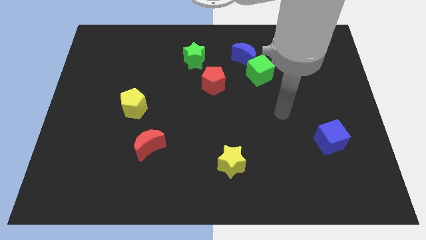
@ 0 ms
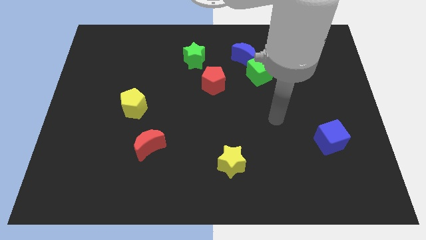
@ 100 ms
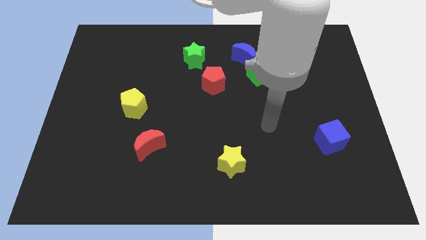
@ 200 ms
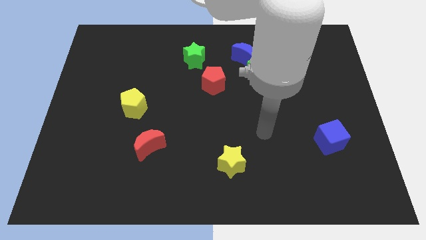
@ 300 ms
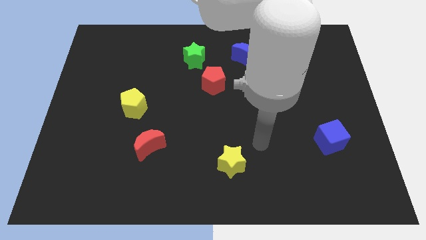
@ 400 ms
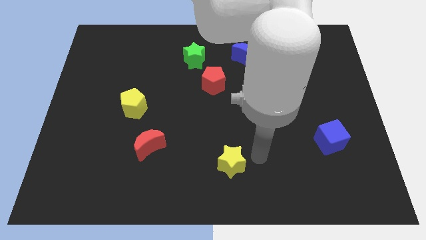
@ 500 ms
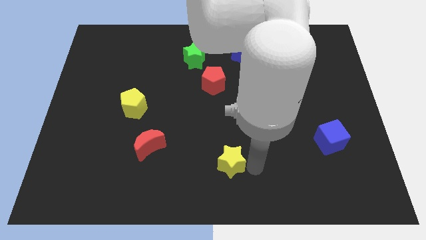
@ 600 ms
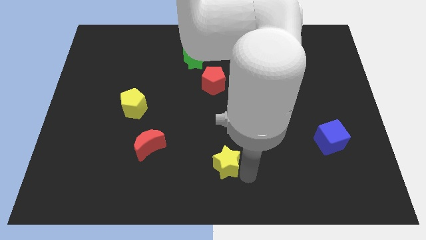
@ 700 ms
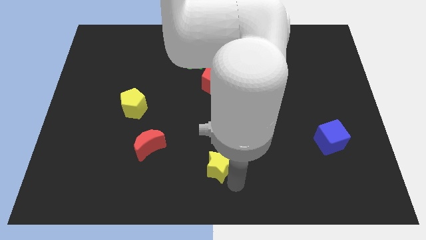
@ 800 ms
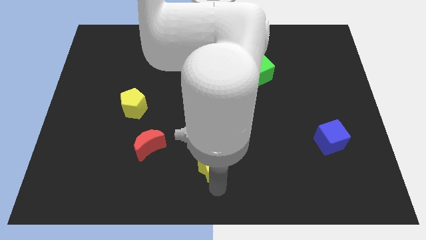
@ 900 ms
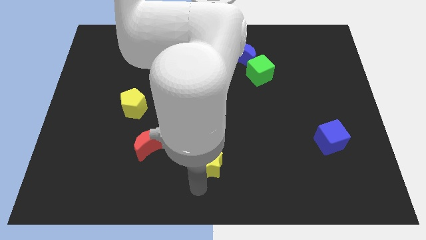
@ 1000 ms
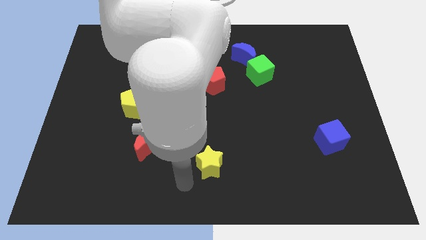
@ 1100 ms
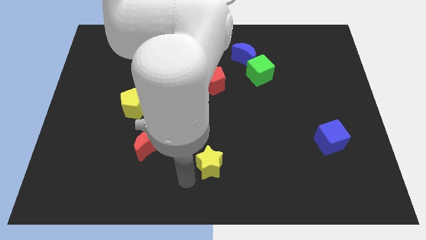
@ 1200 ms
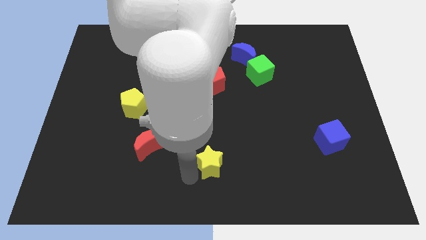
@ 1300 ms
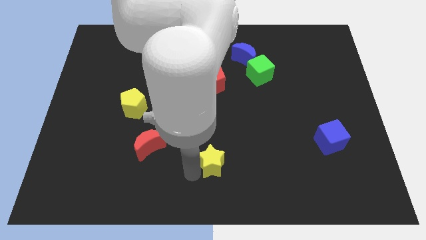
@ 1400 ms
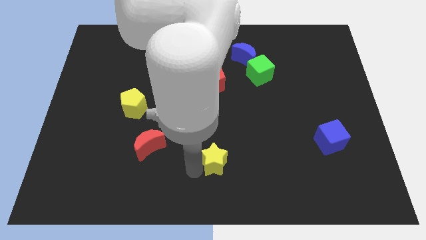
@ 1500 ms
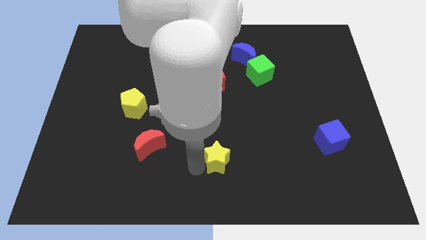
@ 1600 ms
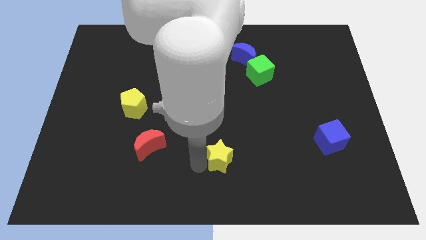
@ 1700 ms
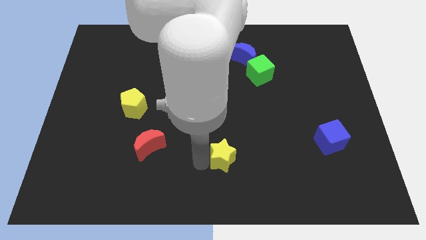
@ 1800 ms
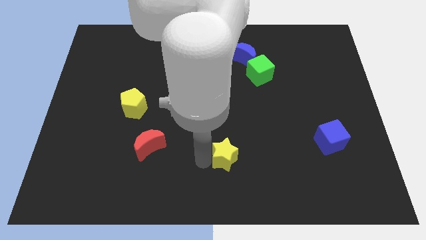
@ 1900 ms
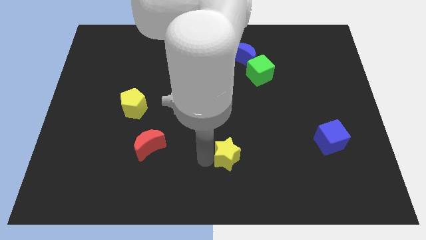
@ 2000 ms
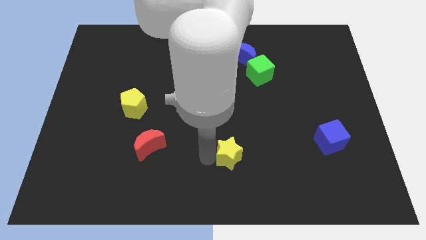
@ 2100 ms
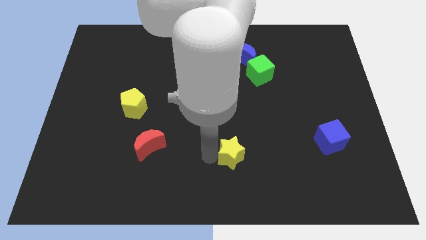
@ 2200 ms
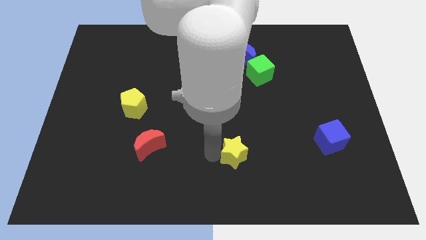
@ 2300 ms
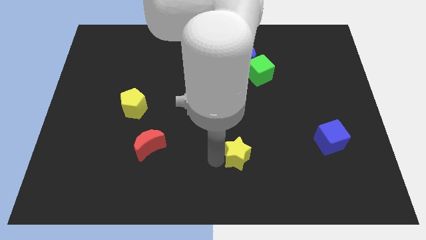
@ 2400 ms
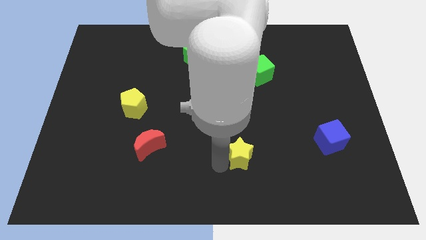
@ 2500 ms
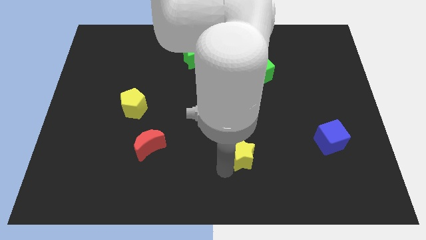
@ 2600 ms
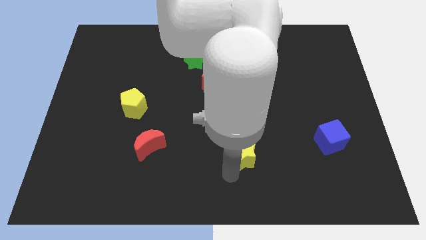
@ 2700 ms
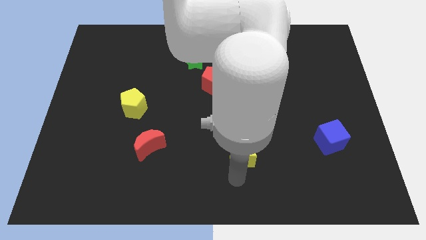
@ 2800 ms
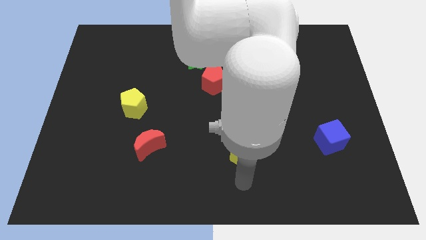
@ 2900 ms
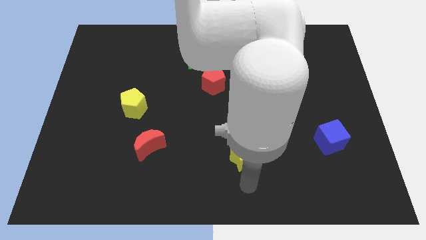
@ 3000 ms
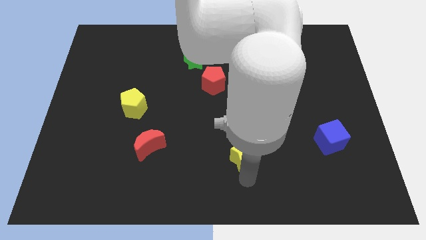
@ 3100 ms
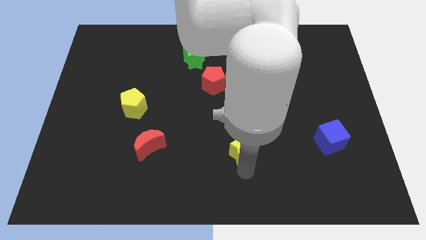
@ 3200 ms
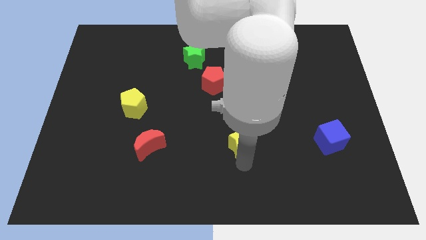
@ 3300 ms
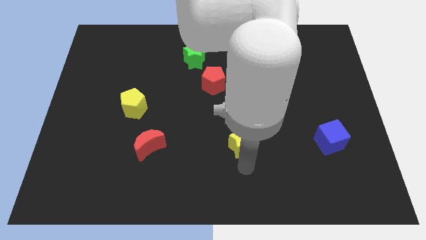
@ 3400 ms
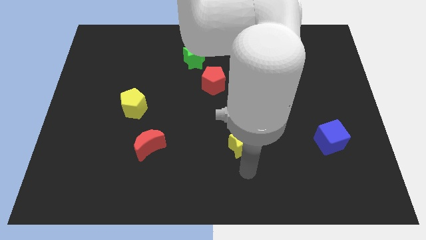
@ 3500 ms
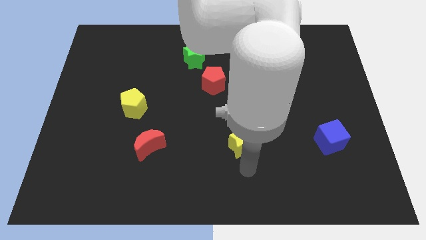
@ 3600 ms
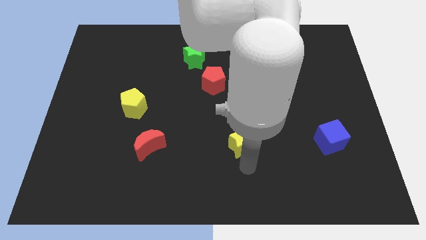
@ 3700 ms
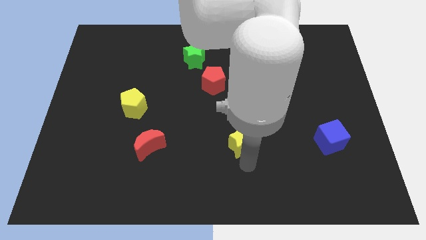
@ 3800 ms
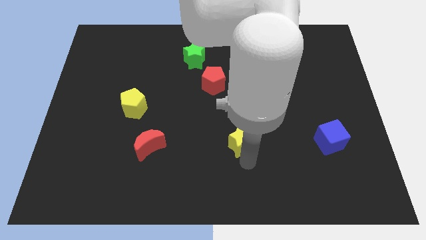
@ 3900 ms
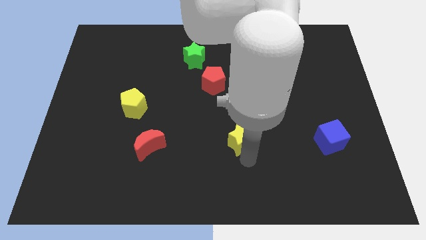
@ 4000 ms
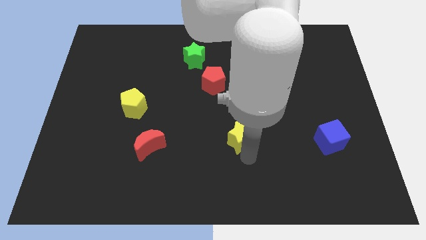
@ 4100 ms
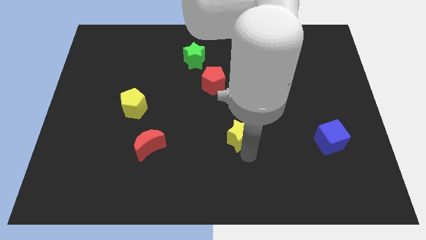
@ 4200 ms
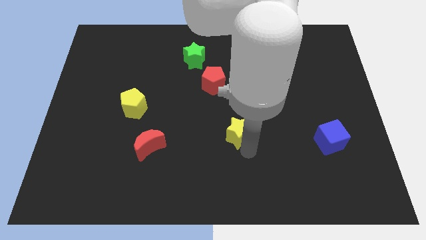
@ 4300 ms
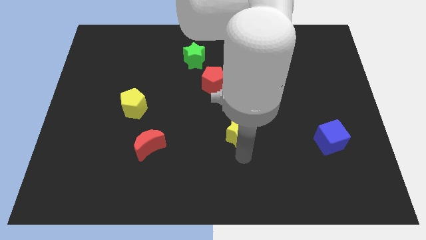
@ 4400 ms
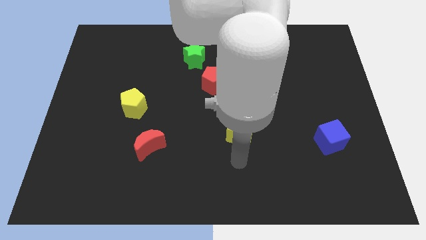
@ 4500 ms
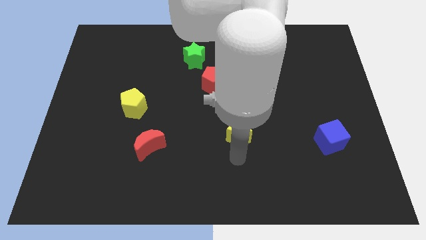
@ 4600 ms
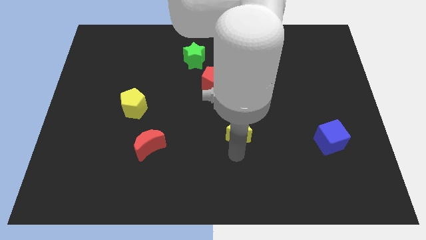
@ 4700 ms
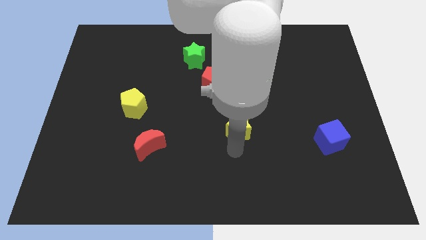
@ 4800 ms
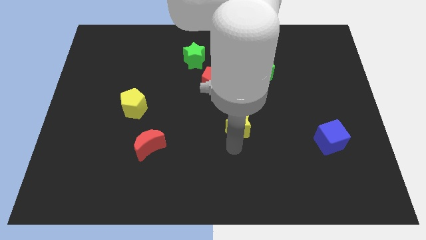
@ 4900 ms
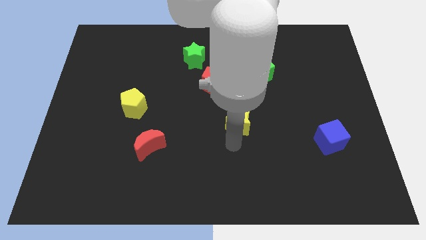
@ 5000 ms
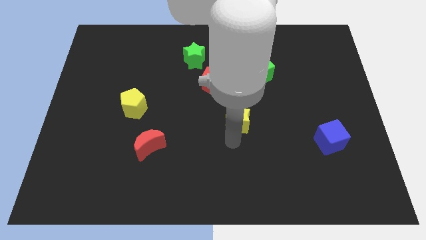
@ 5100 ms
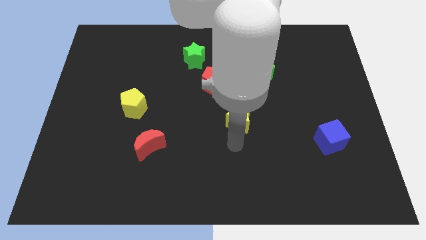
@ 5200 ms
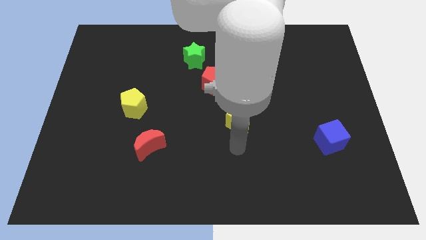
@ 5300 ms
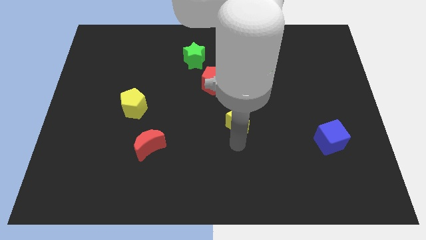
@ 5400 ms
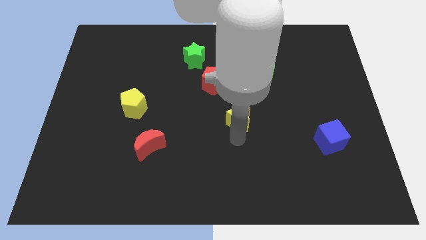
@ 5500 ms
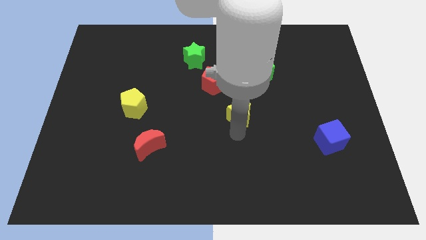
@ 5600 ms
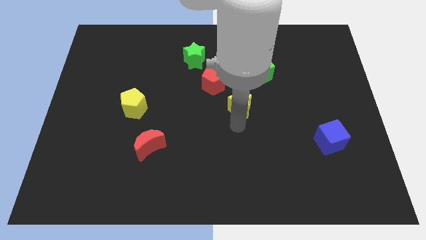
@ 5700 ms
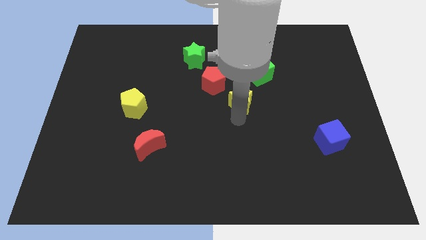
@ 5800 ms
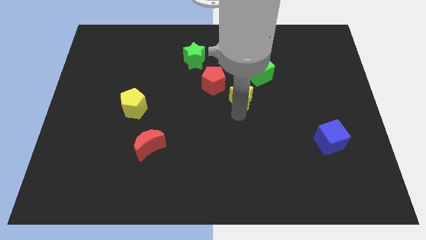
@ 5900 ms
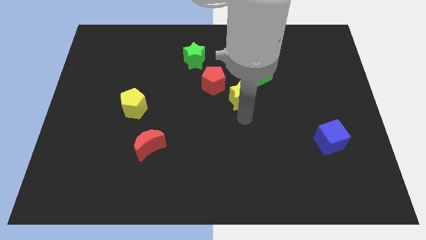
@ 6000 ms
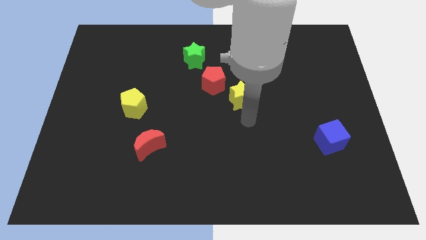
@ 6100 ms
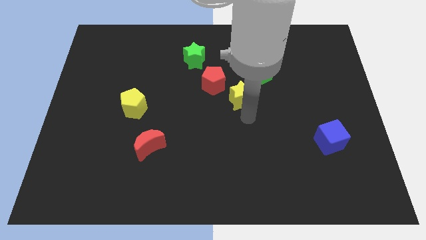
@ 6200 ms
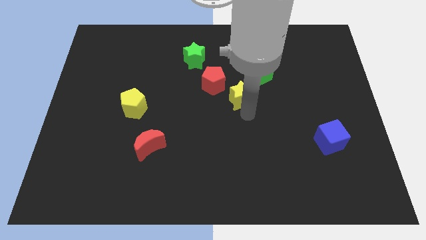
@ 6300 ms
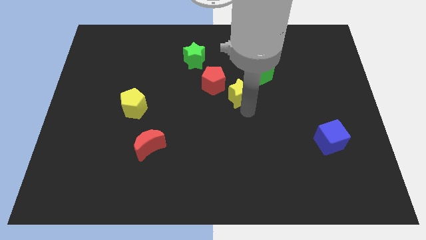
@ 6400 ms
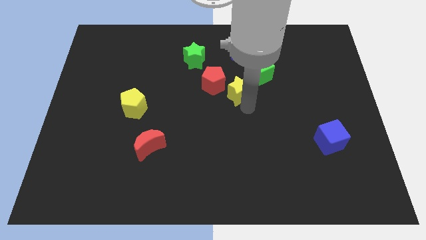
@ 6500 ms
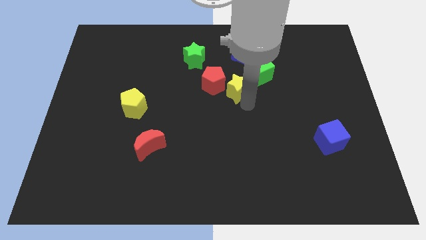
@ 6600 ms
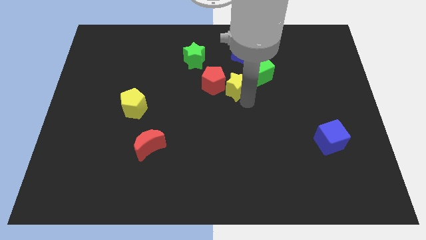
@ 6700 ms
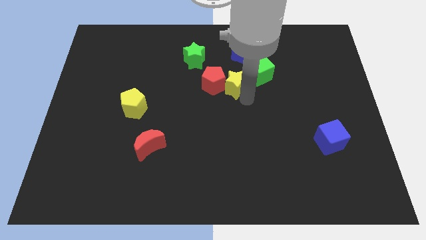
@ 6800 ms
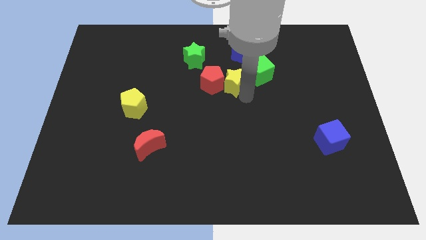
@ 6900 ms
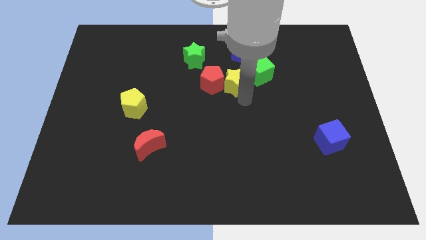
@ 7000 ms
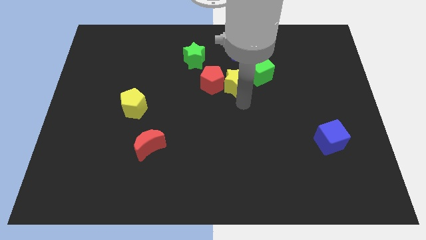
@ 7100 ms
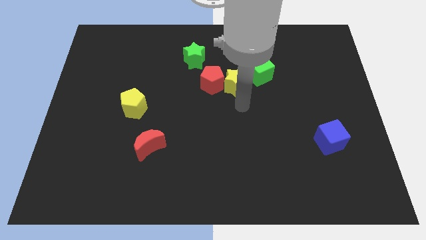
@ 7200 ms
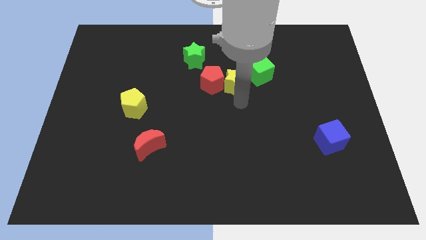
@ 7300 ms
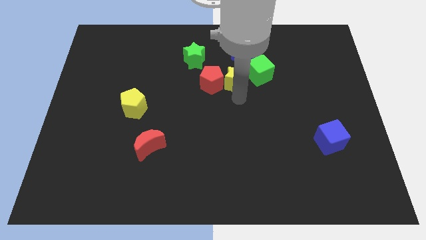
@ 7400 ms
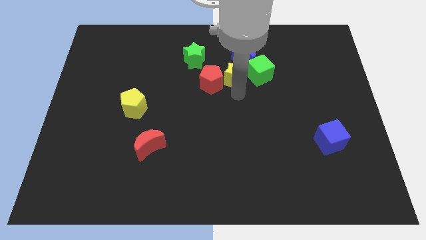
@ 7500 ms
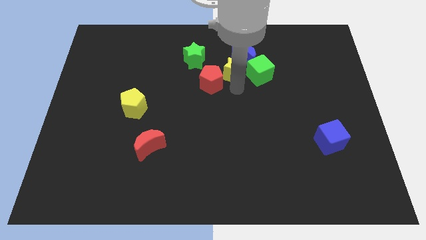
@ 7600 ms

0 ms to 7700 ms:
push the yellow star to the top left of the green cube
